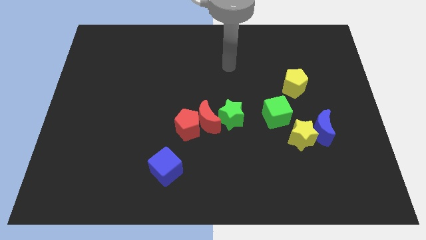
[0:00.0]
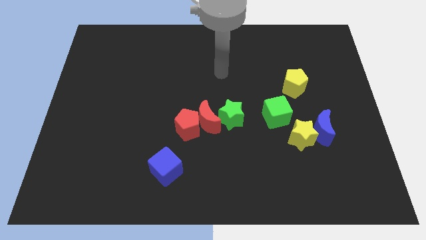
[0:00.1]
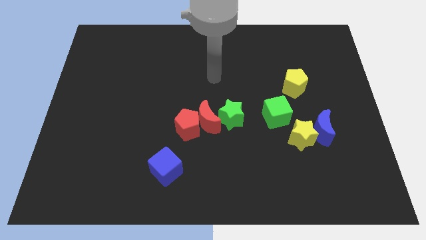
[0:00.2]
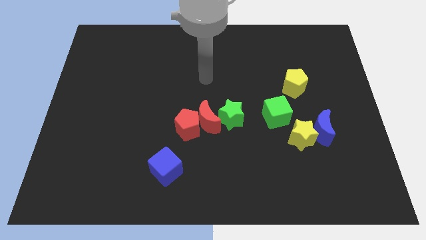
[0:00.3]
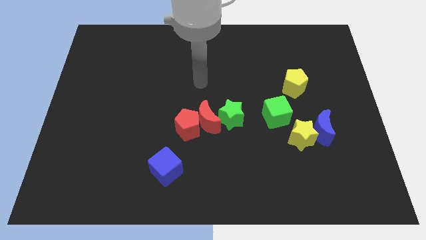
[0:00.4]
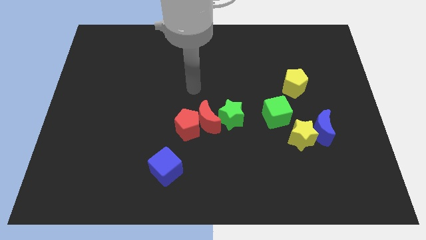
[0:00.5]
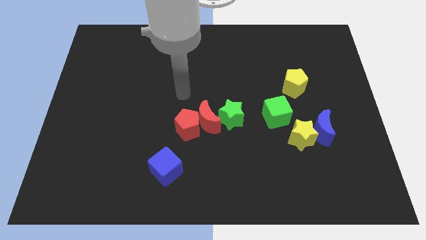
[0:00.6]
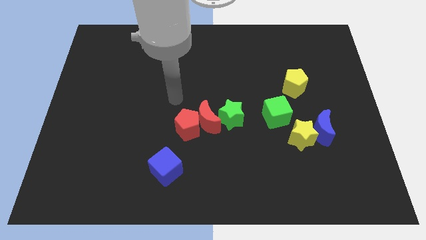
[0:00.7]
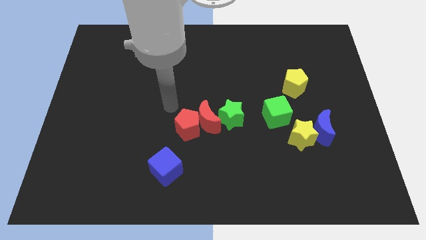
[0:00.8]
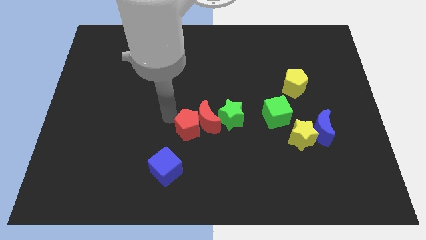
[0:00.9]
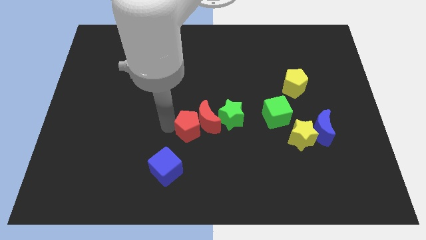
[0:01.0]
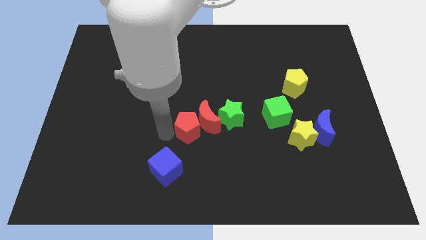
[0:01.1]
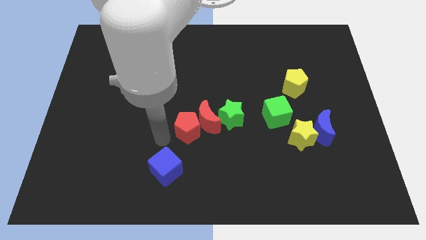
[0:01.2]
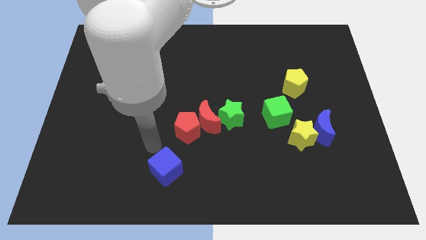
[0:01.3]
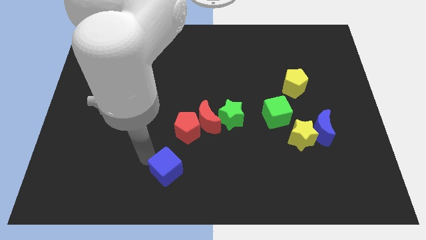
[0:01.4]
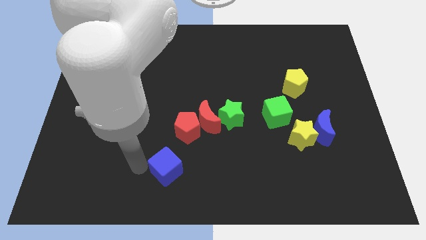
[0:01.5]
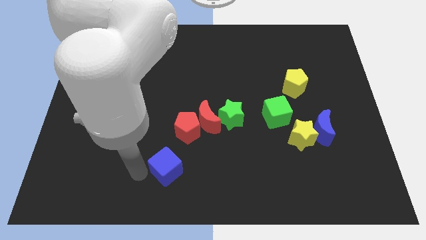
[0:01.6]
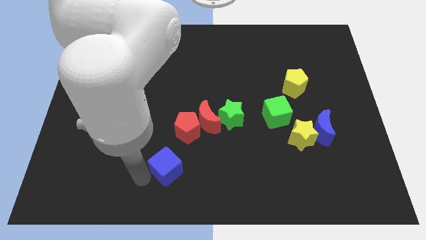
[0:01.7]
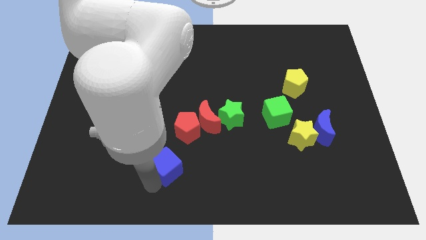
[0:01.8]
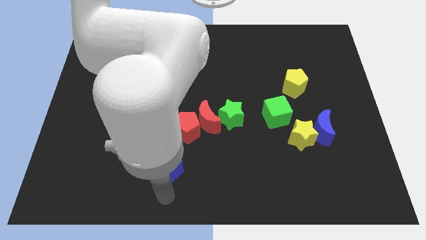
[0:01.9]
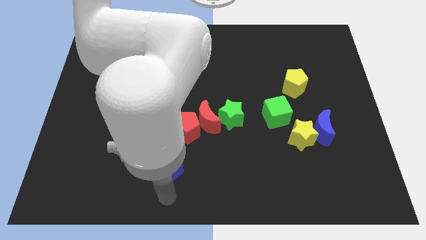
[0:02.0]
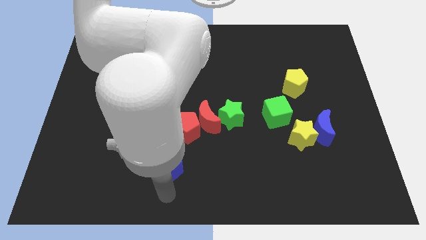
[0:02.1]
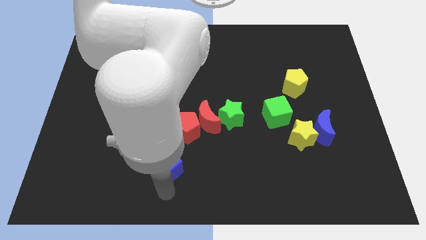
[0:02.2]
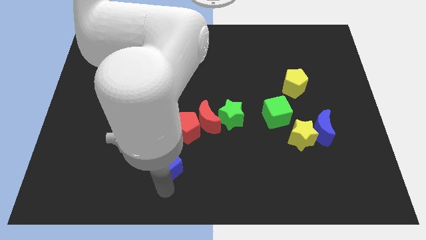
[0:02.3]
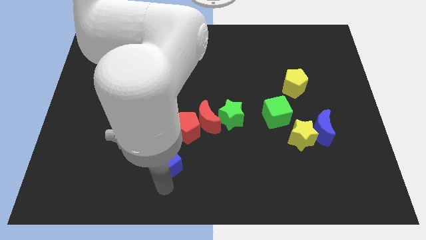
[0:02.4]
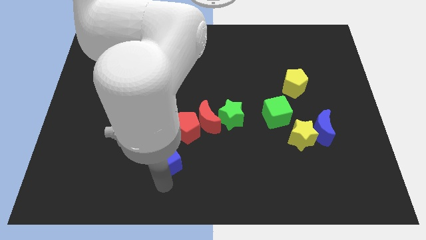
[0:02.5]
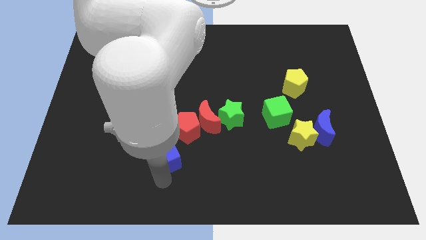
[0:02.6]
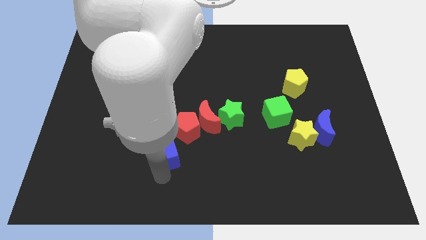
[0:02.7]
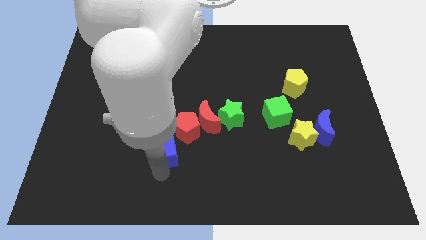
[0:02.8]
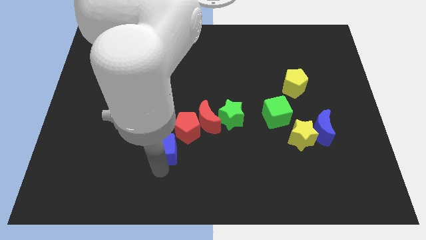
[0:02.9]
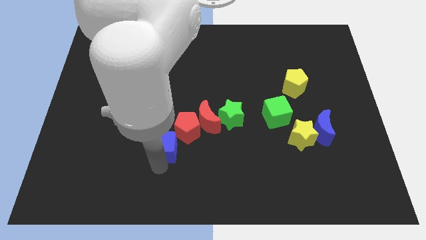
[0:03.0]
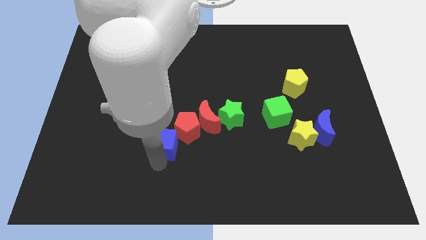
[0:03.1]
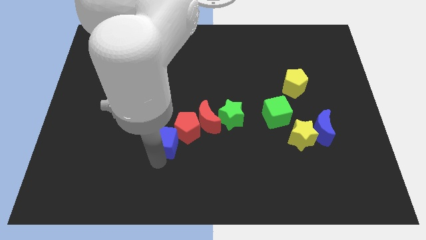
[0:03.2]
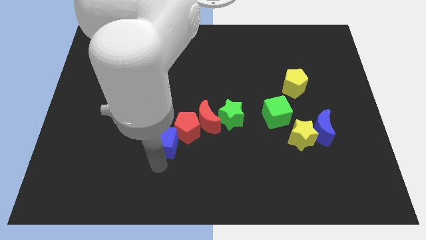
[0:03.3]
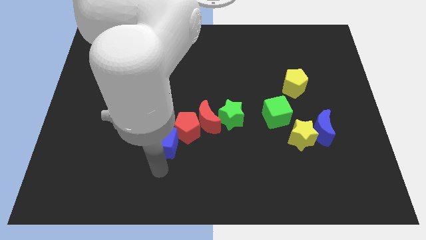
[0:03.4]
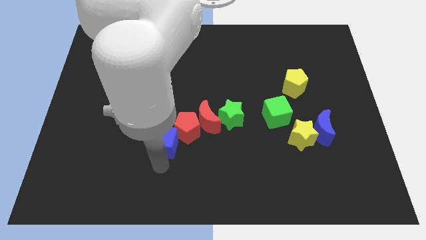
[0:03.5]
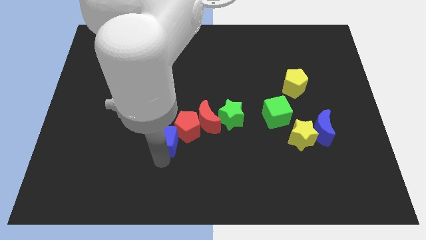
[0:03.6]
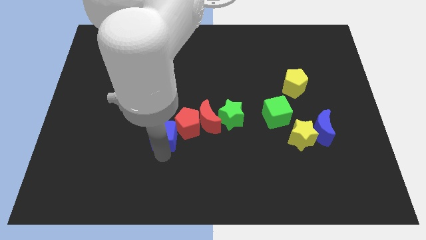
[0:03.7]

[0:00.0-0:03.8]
push the blue cube a little bit up

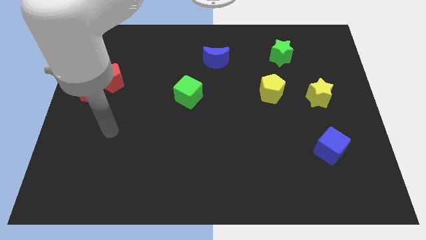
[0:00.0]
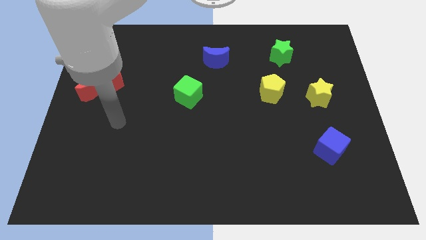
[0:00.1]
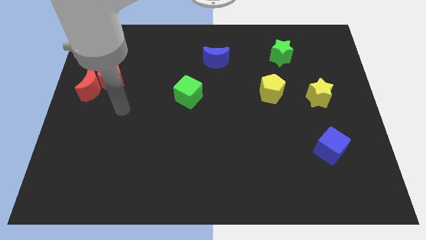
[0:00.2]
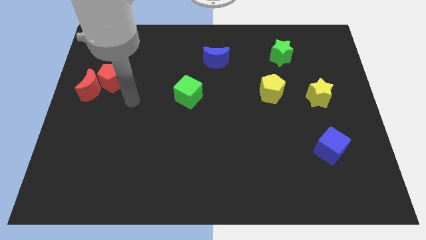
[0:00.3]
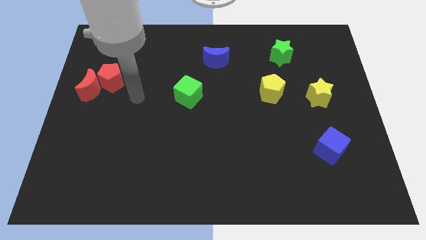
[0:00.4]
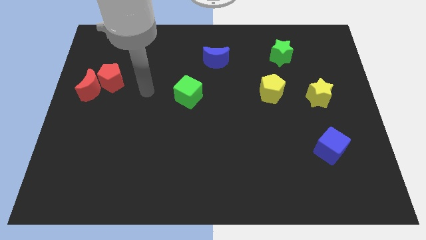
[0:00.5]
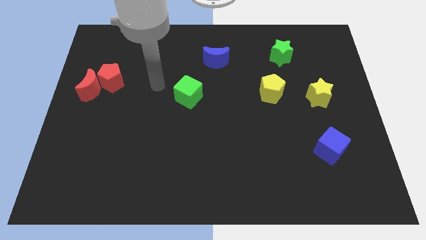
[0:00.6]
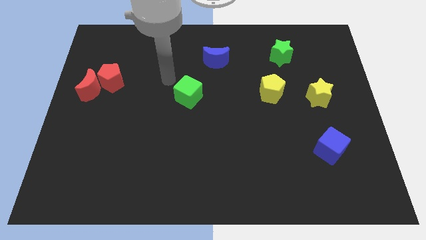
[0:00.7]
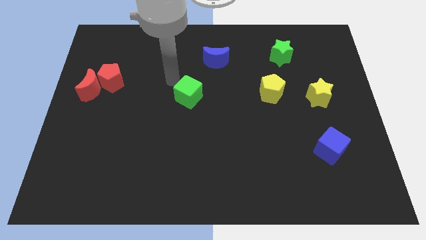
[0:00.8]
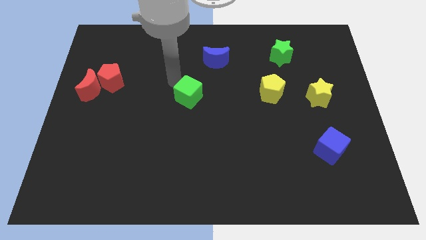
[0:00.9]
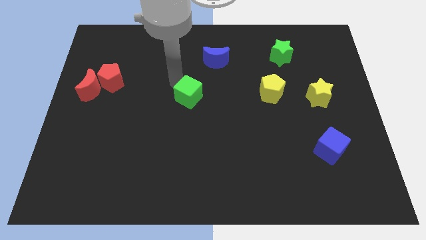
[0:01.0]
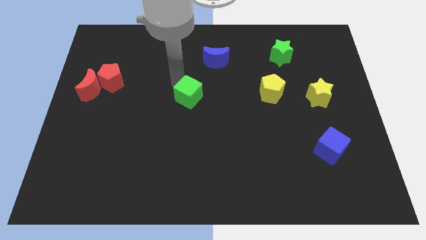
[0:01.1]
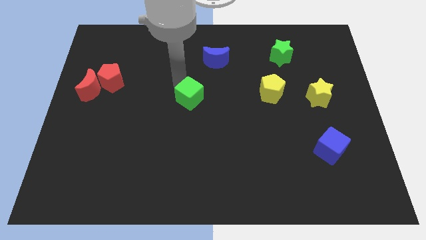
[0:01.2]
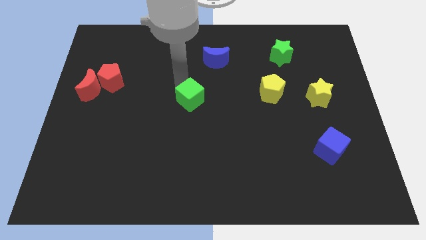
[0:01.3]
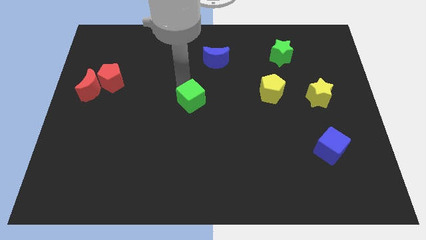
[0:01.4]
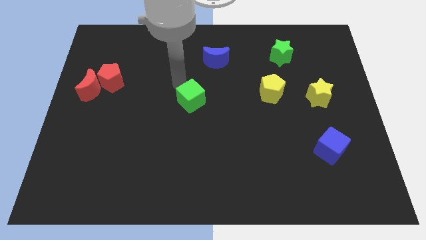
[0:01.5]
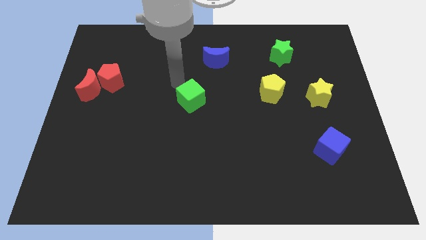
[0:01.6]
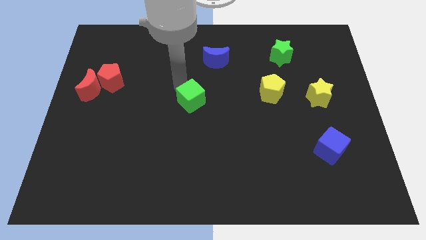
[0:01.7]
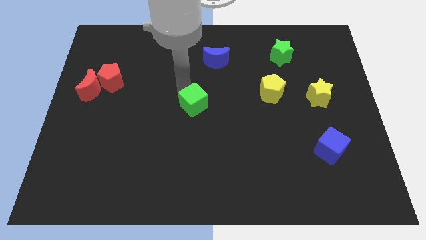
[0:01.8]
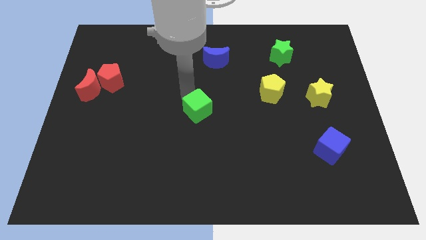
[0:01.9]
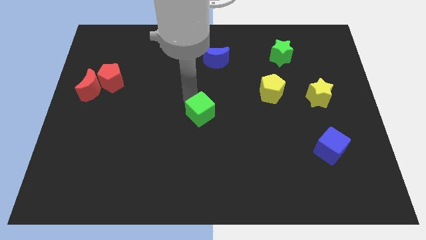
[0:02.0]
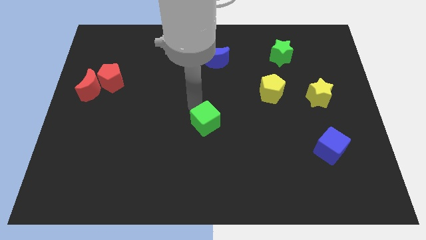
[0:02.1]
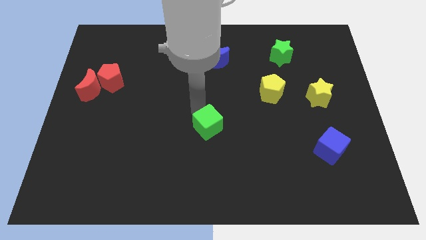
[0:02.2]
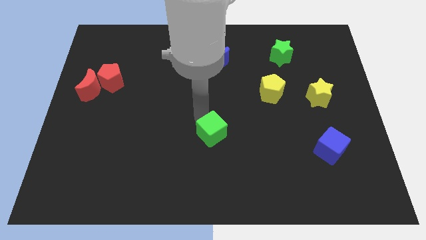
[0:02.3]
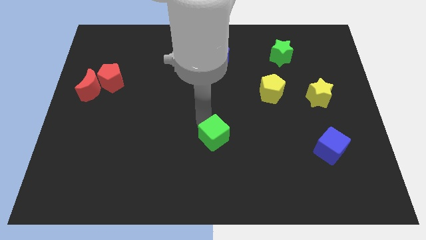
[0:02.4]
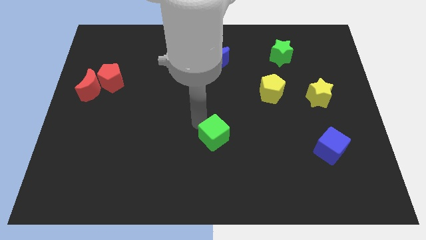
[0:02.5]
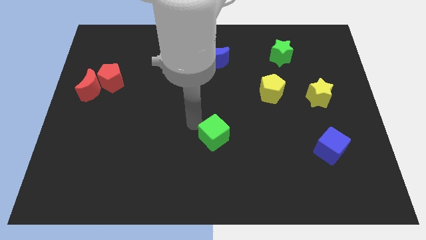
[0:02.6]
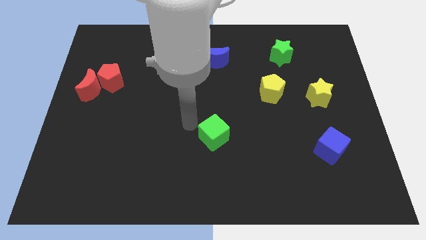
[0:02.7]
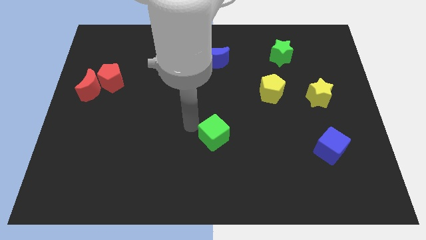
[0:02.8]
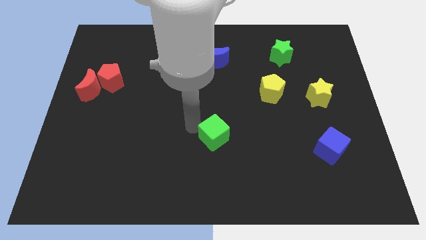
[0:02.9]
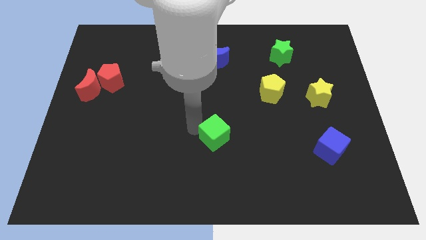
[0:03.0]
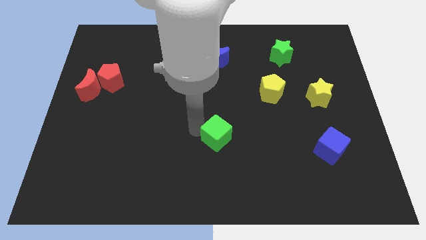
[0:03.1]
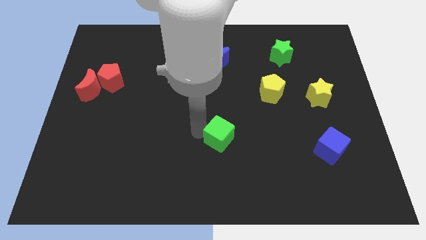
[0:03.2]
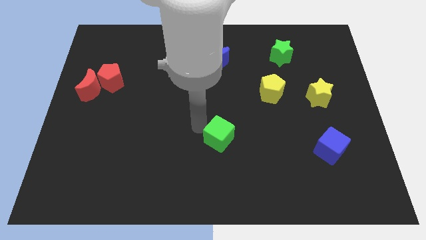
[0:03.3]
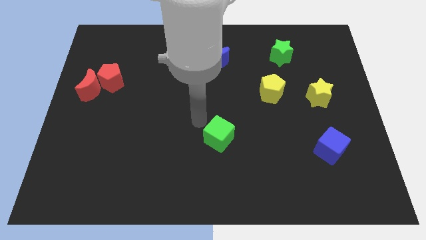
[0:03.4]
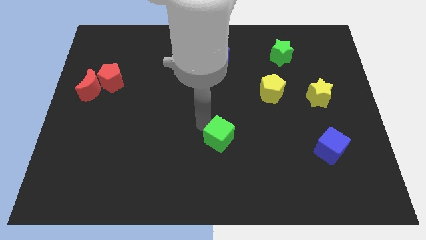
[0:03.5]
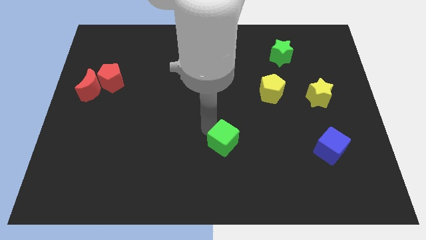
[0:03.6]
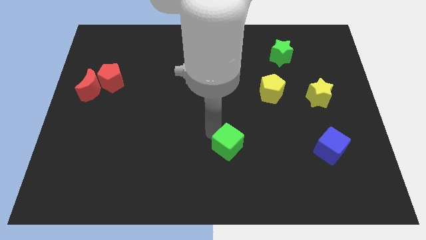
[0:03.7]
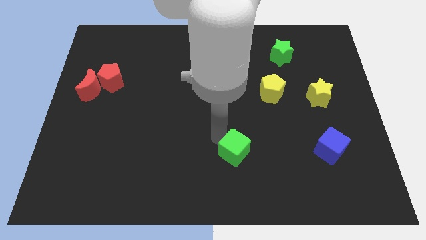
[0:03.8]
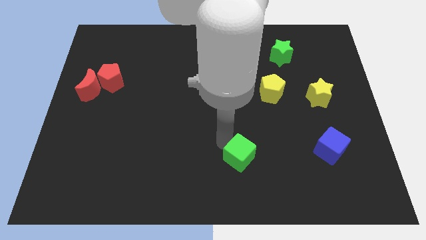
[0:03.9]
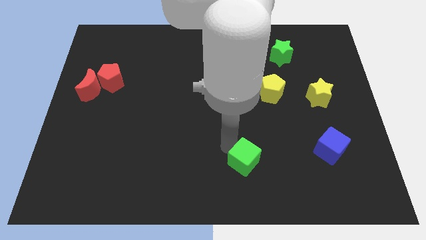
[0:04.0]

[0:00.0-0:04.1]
slide the green cube diagonally downwards and right

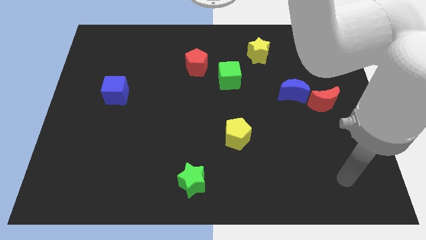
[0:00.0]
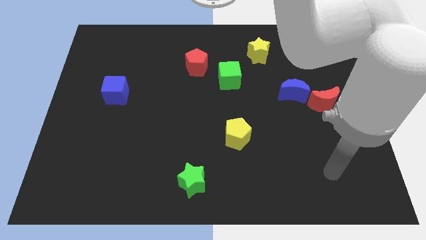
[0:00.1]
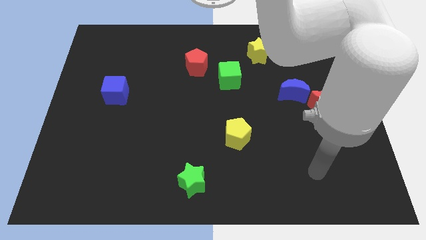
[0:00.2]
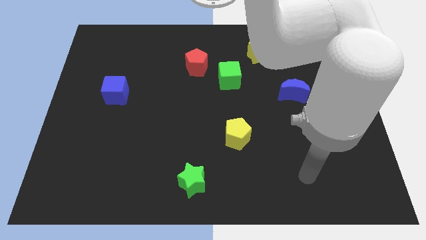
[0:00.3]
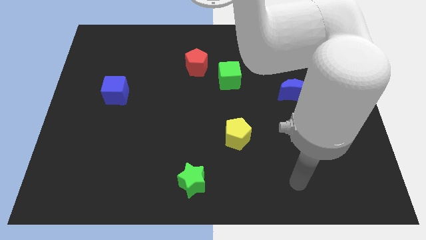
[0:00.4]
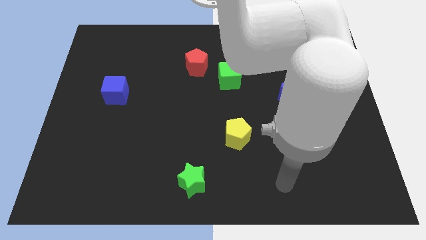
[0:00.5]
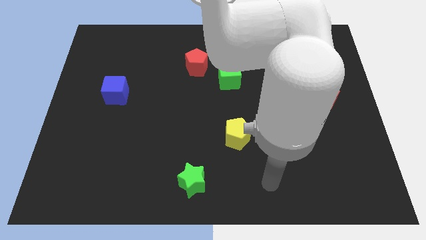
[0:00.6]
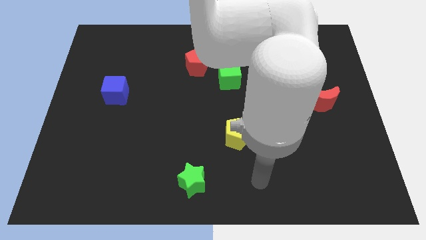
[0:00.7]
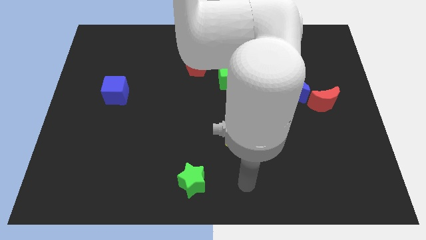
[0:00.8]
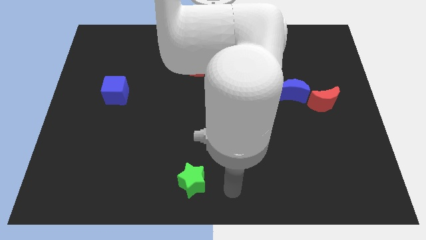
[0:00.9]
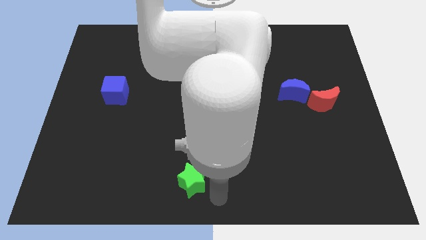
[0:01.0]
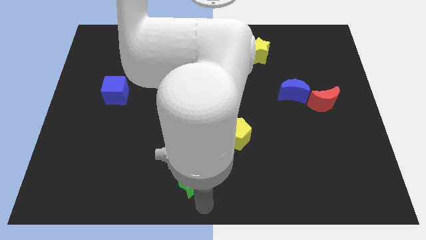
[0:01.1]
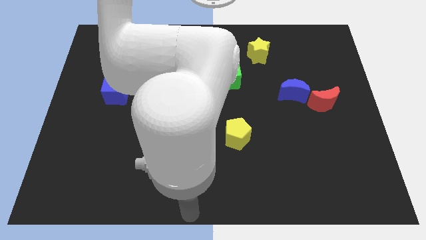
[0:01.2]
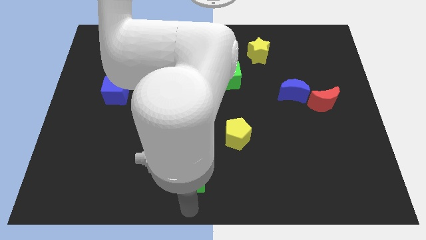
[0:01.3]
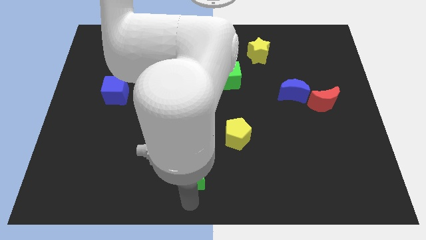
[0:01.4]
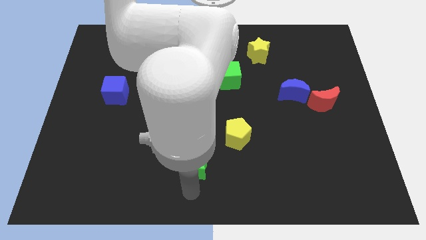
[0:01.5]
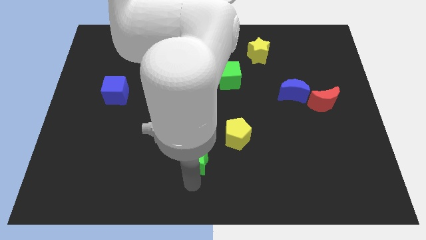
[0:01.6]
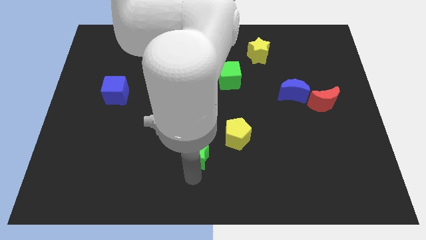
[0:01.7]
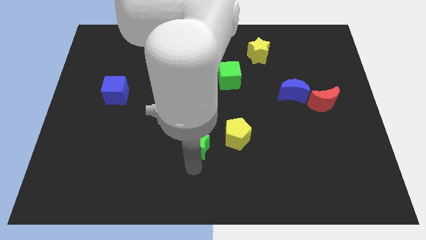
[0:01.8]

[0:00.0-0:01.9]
push the green star somewhat upwards
